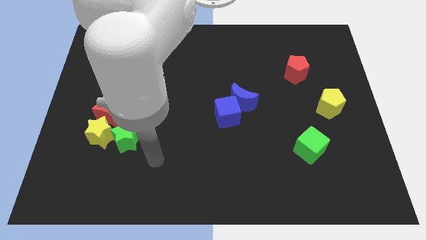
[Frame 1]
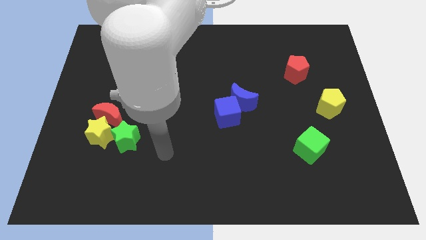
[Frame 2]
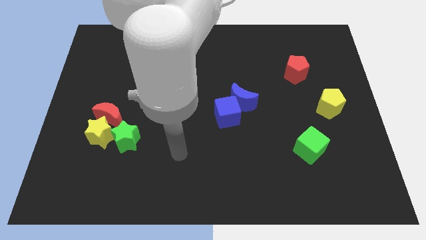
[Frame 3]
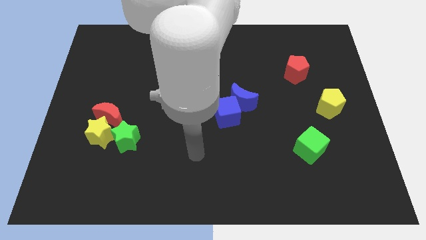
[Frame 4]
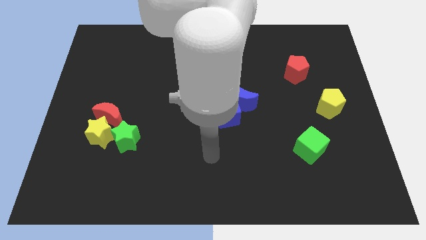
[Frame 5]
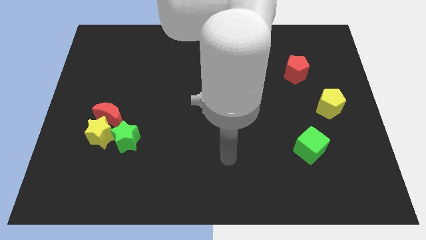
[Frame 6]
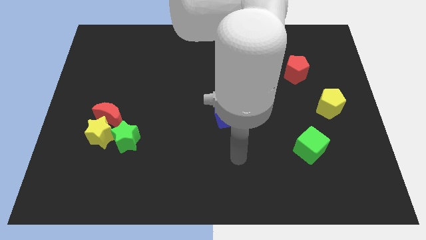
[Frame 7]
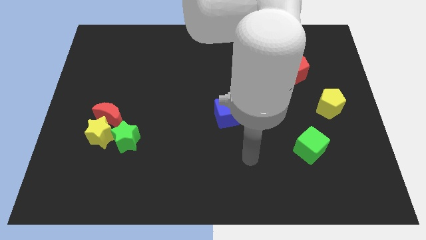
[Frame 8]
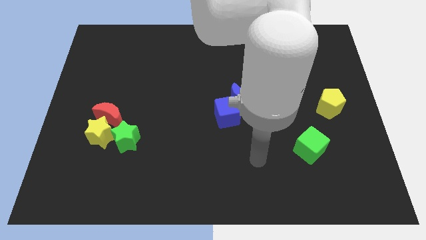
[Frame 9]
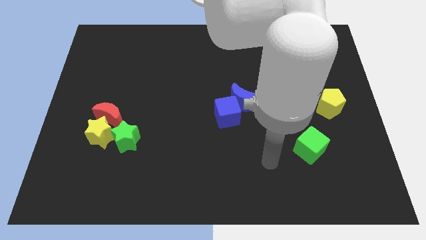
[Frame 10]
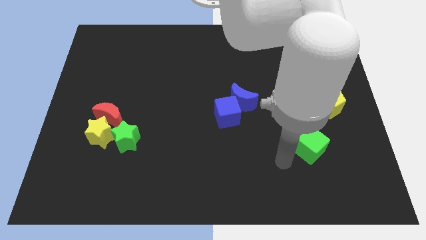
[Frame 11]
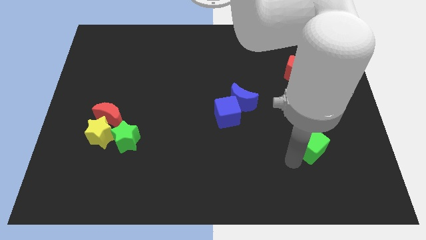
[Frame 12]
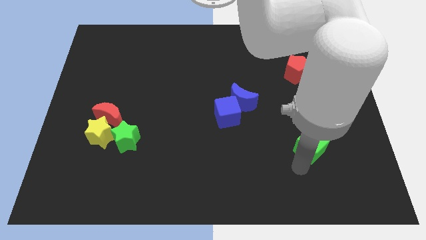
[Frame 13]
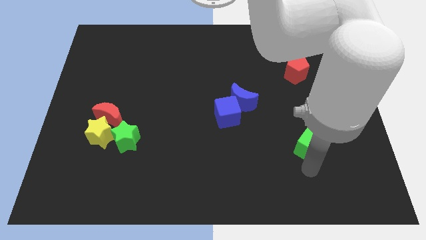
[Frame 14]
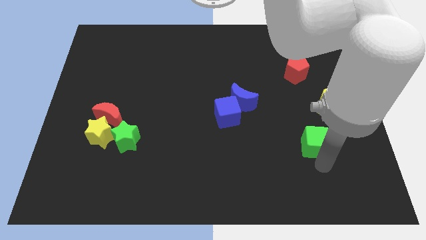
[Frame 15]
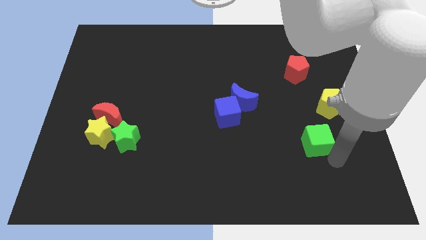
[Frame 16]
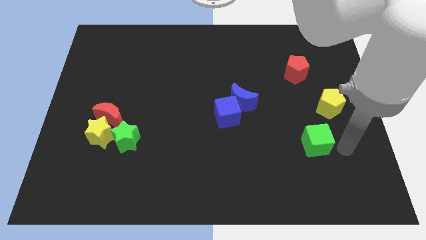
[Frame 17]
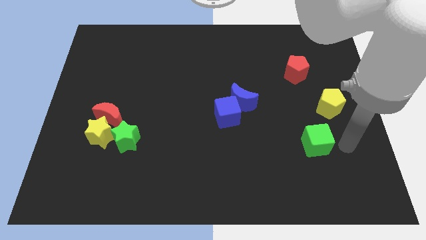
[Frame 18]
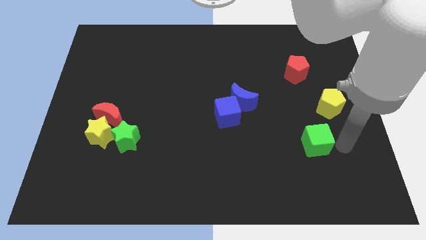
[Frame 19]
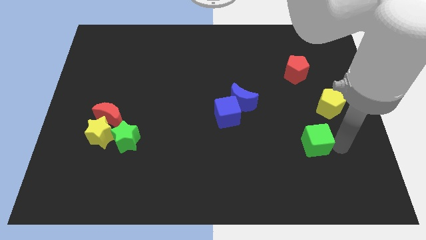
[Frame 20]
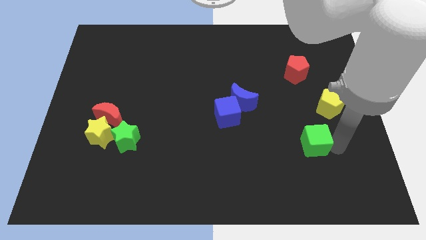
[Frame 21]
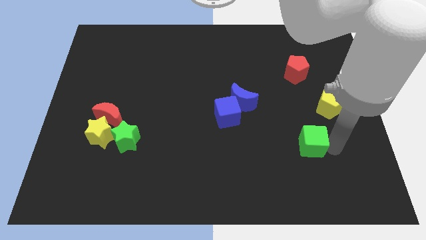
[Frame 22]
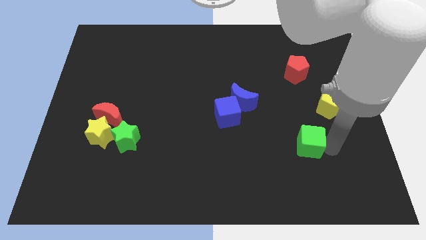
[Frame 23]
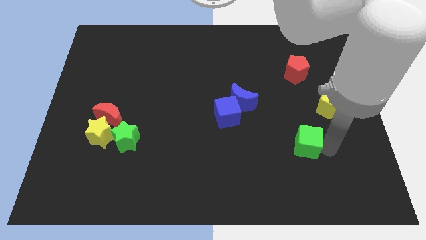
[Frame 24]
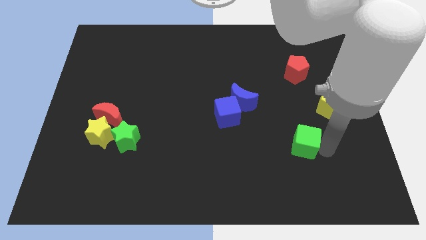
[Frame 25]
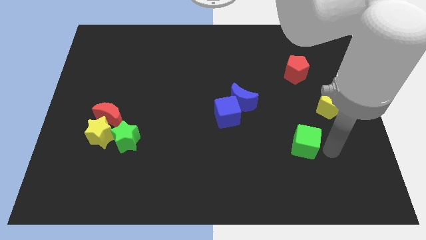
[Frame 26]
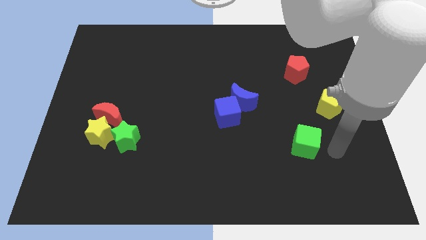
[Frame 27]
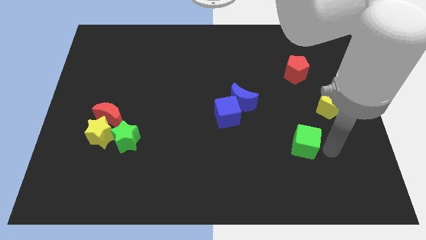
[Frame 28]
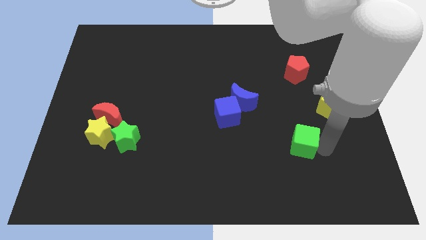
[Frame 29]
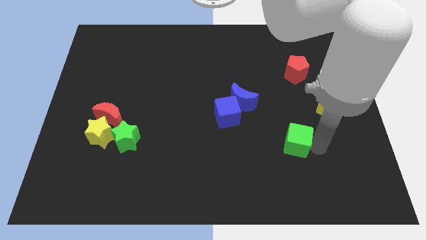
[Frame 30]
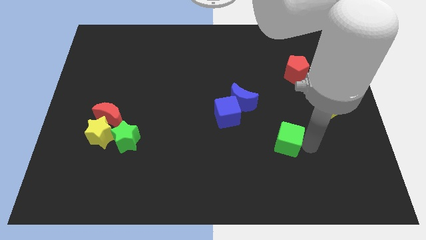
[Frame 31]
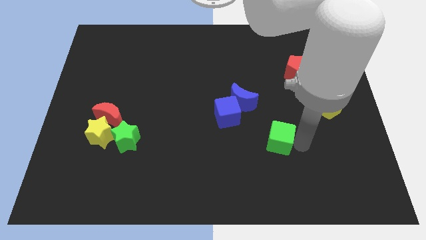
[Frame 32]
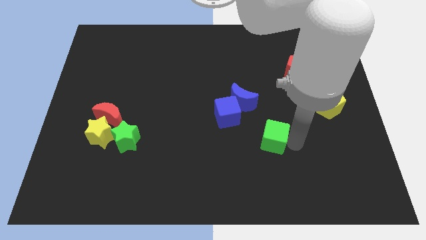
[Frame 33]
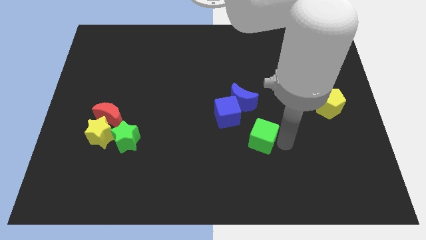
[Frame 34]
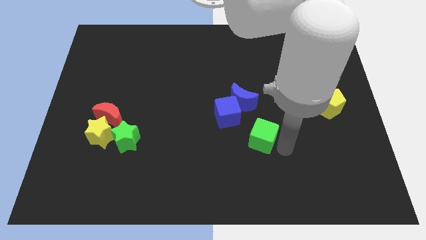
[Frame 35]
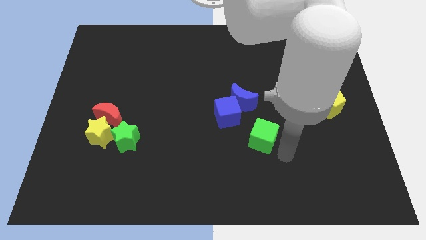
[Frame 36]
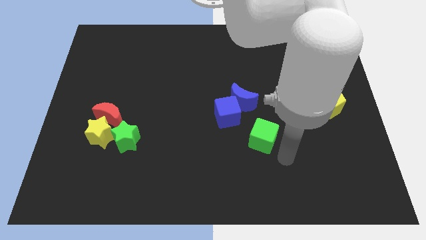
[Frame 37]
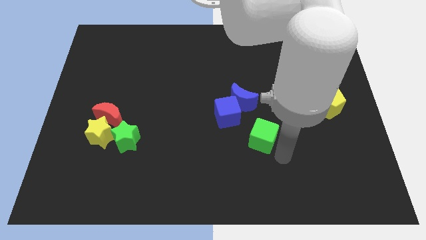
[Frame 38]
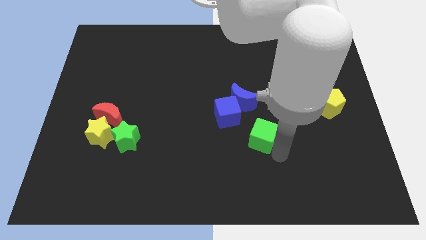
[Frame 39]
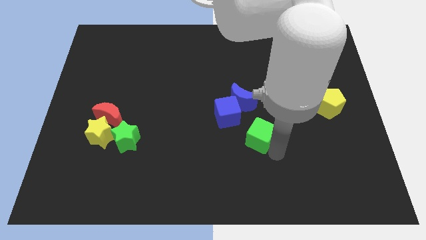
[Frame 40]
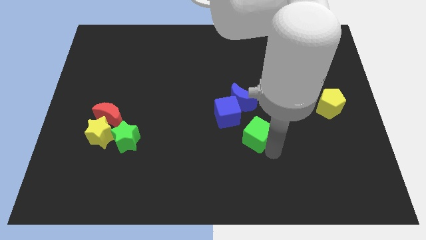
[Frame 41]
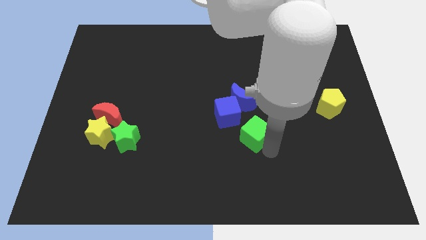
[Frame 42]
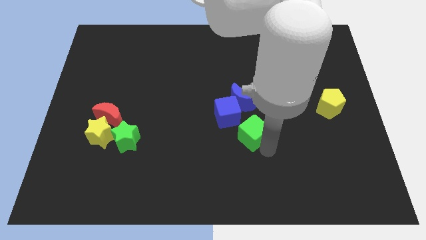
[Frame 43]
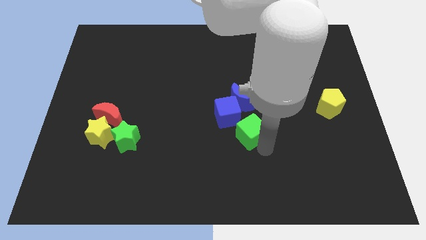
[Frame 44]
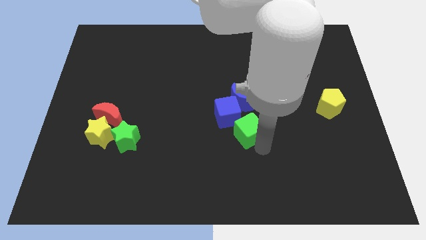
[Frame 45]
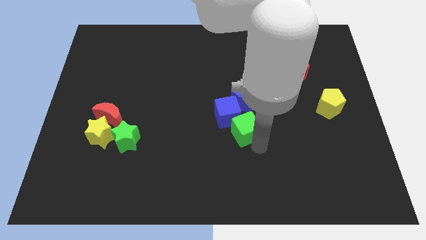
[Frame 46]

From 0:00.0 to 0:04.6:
push the green cube next to the blue cube

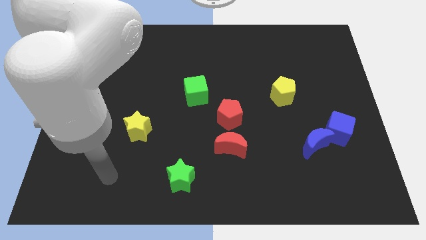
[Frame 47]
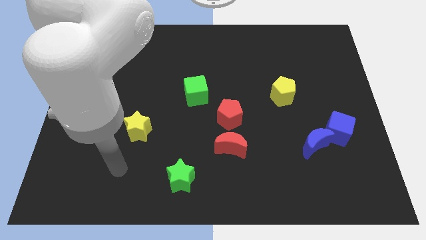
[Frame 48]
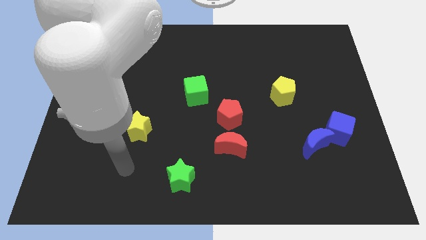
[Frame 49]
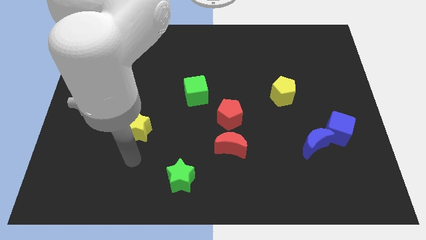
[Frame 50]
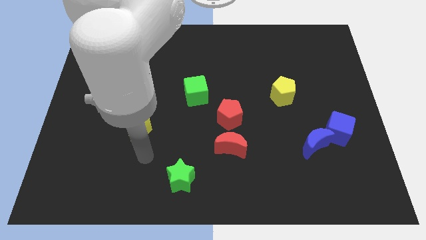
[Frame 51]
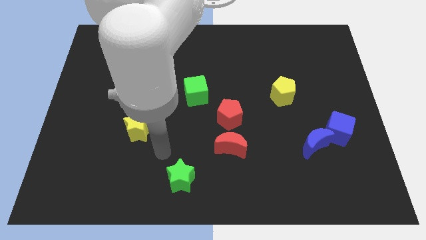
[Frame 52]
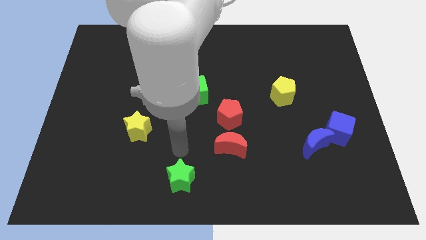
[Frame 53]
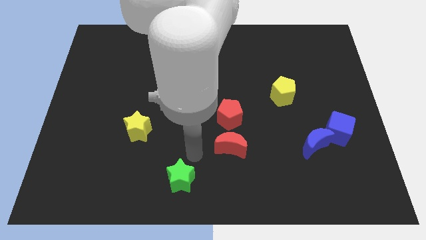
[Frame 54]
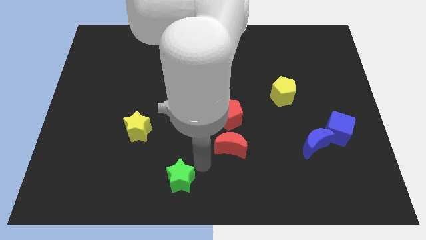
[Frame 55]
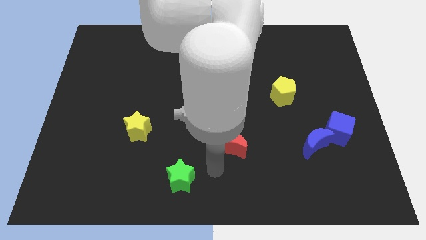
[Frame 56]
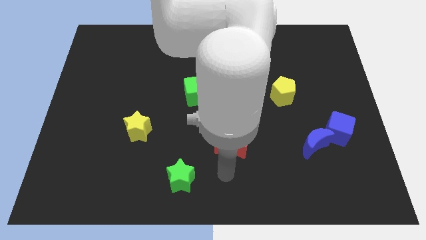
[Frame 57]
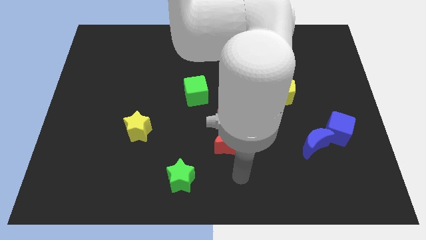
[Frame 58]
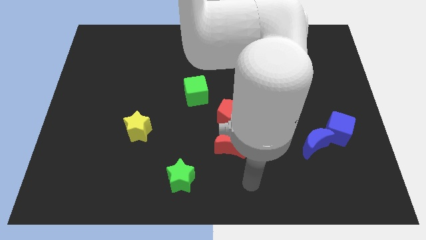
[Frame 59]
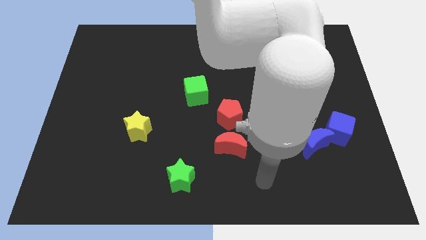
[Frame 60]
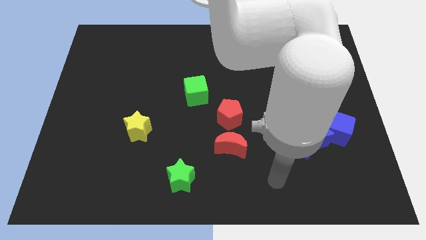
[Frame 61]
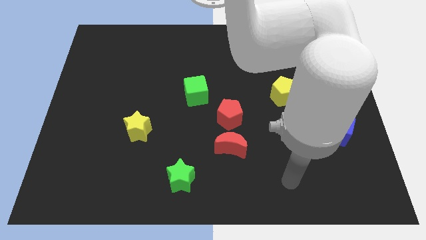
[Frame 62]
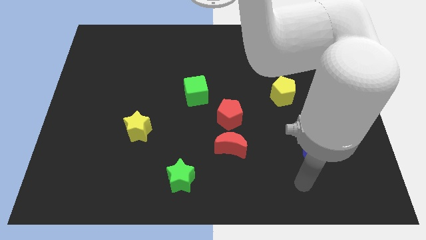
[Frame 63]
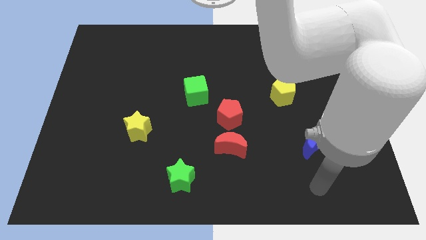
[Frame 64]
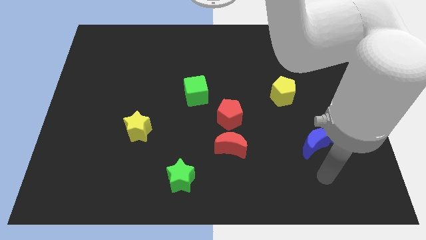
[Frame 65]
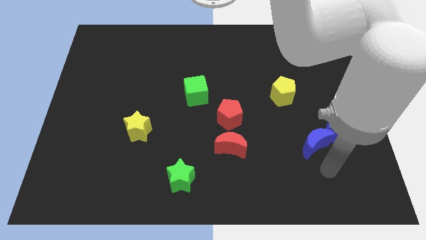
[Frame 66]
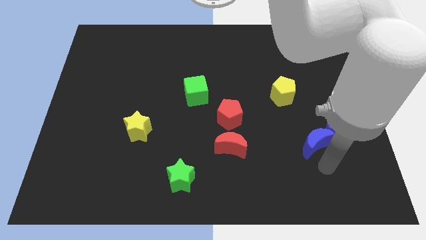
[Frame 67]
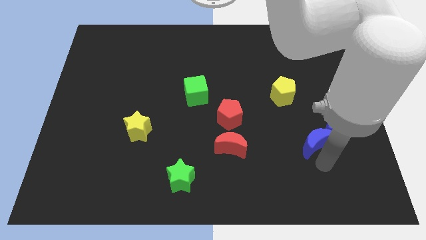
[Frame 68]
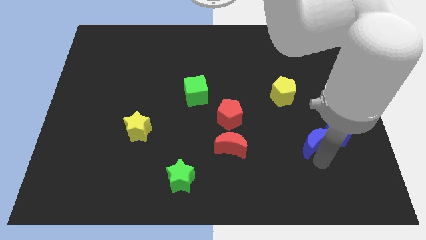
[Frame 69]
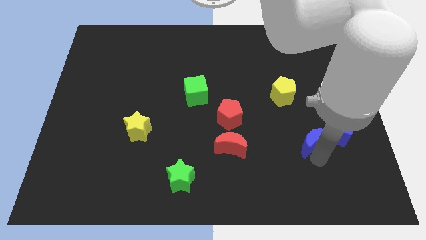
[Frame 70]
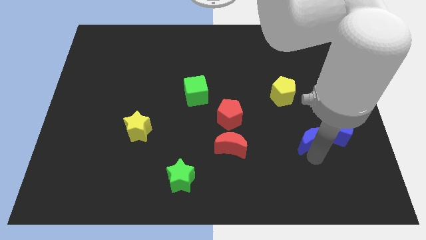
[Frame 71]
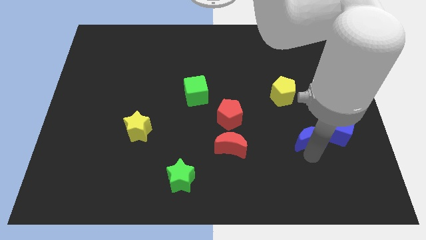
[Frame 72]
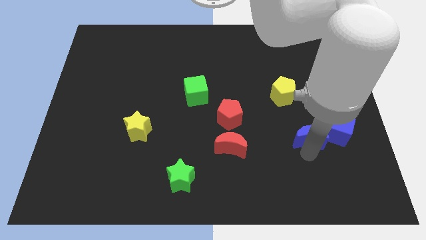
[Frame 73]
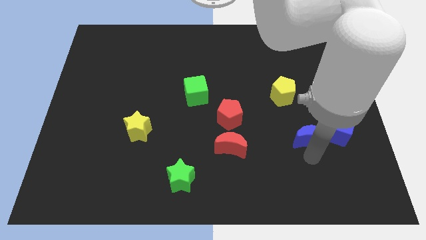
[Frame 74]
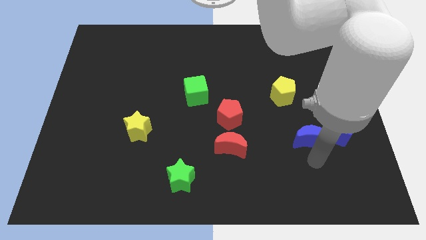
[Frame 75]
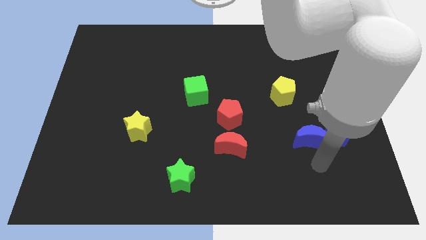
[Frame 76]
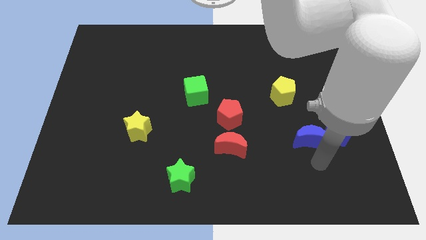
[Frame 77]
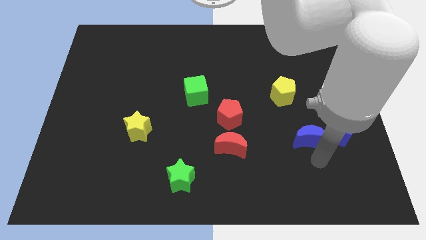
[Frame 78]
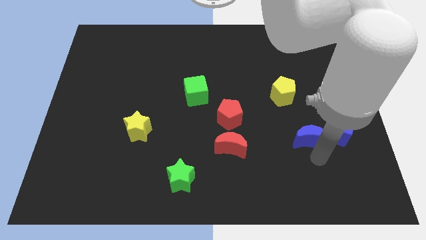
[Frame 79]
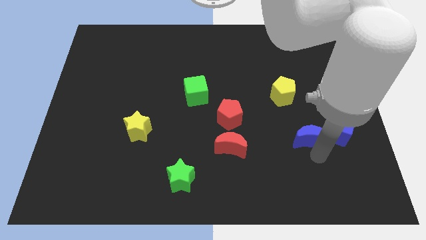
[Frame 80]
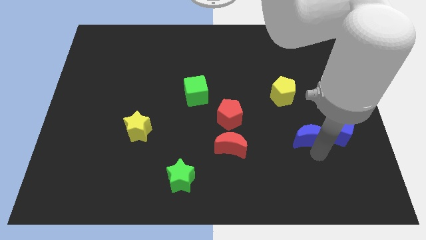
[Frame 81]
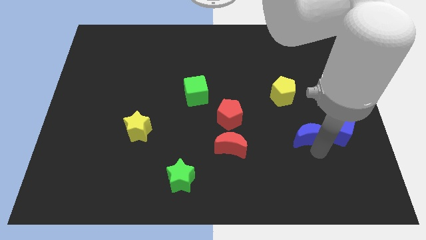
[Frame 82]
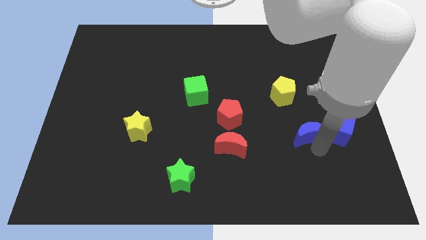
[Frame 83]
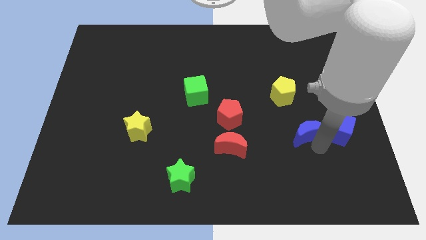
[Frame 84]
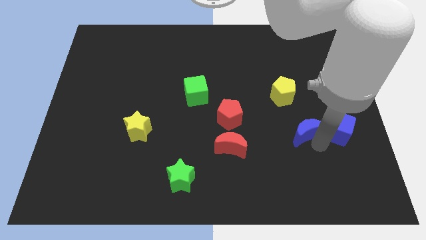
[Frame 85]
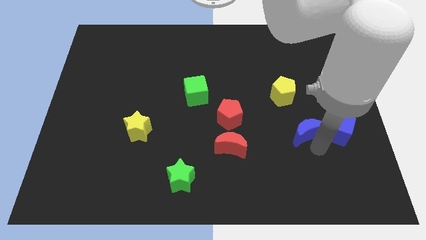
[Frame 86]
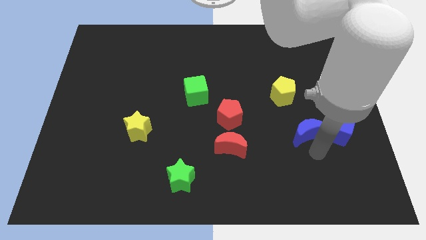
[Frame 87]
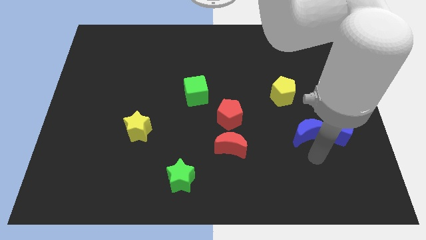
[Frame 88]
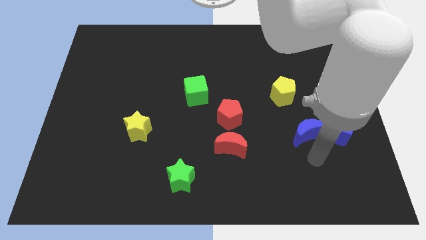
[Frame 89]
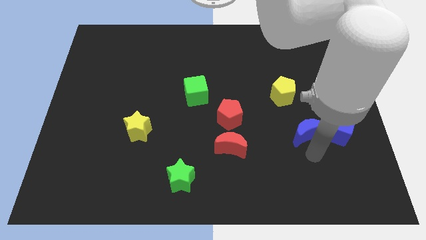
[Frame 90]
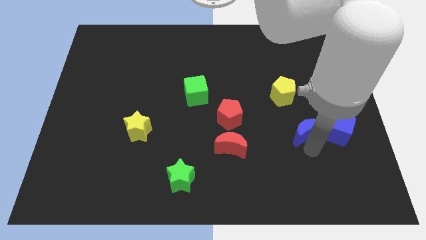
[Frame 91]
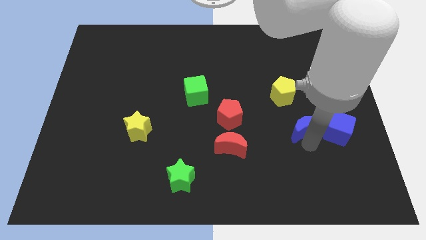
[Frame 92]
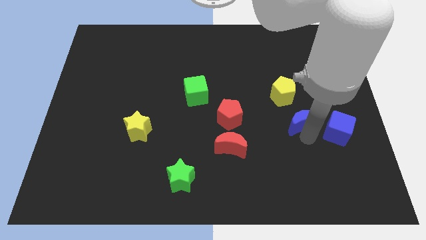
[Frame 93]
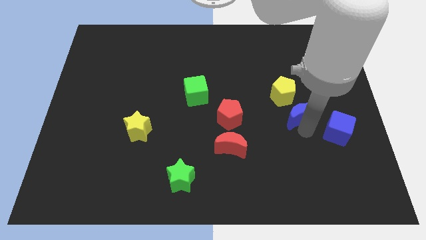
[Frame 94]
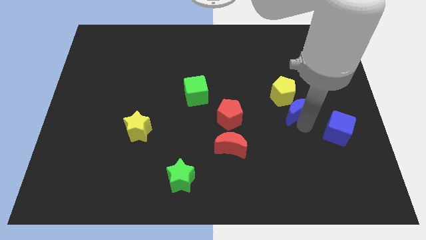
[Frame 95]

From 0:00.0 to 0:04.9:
put the blue moon to the yellow pentagon
